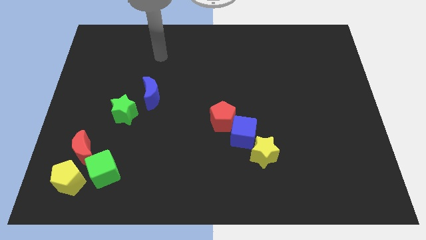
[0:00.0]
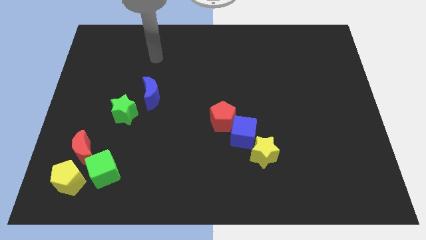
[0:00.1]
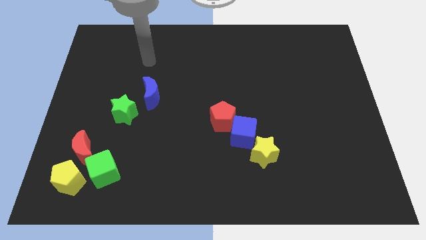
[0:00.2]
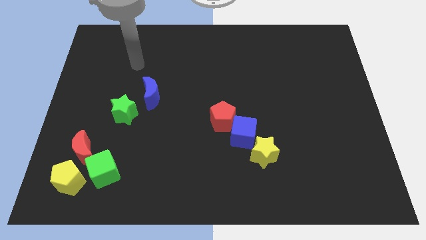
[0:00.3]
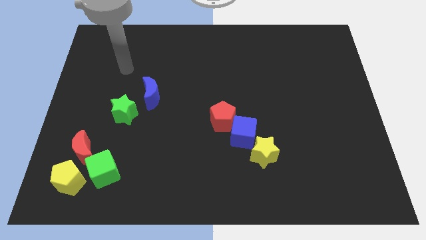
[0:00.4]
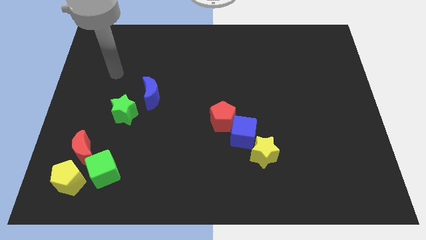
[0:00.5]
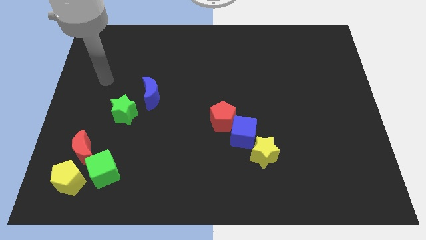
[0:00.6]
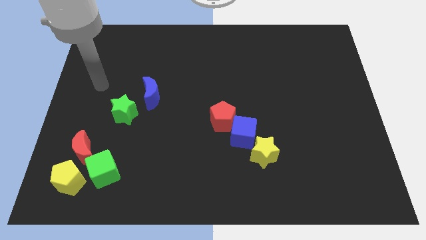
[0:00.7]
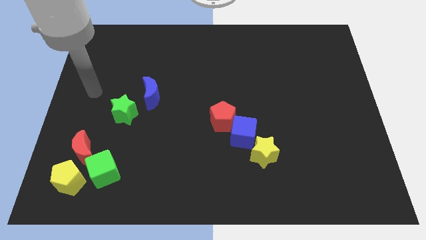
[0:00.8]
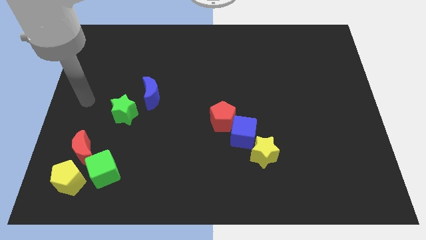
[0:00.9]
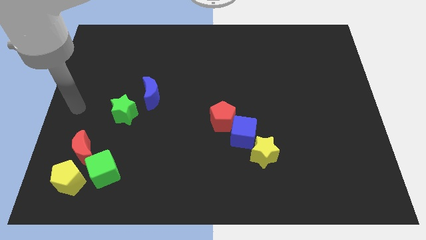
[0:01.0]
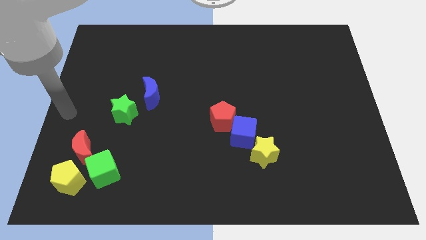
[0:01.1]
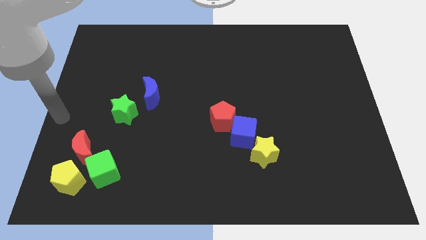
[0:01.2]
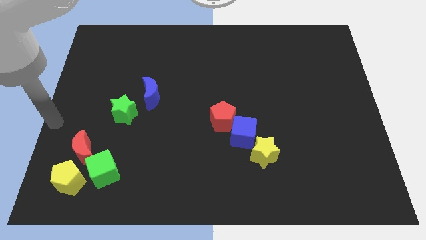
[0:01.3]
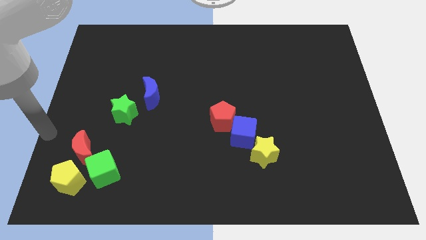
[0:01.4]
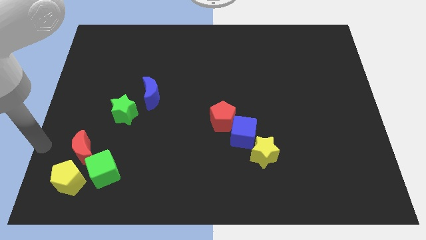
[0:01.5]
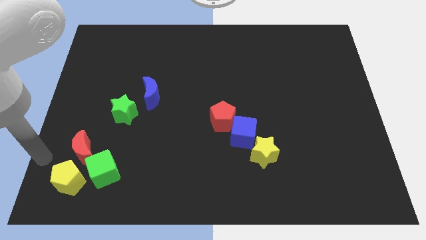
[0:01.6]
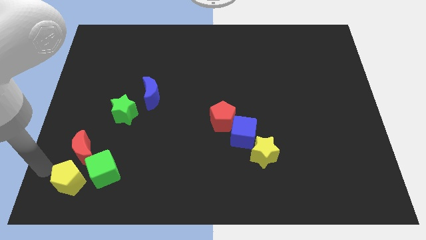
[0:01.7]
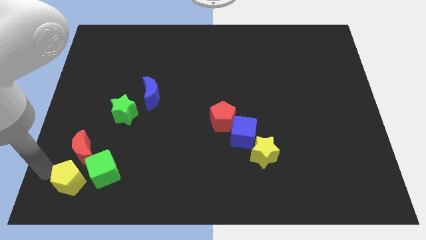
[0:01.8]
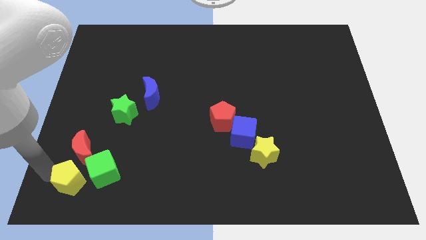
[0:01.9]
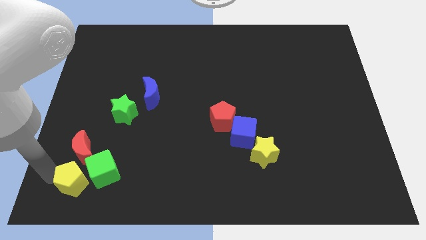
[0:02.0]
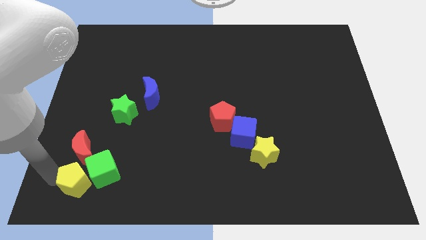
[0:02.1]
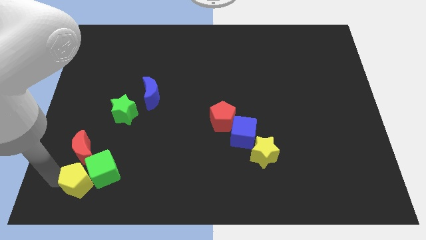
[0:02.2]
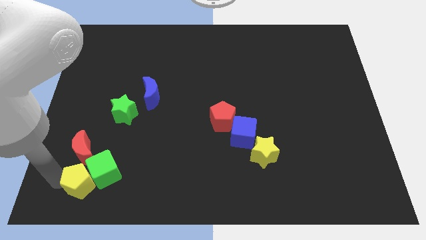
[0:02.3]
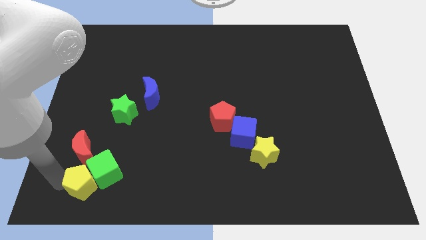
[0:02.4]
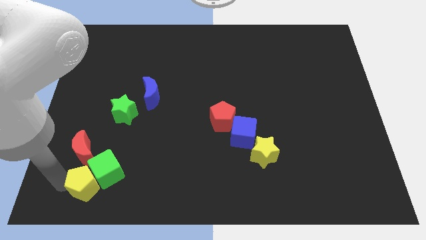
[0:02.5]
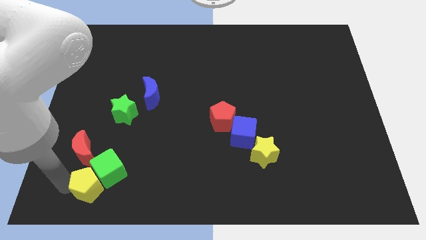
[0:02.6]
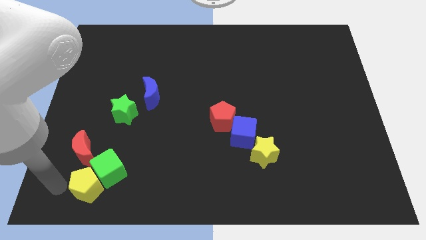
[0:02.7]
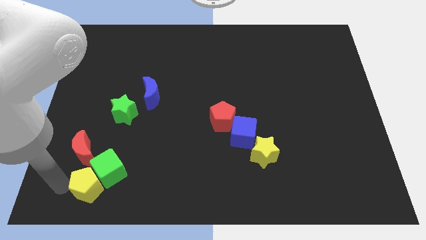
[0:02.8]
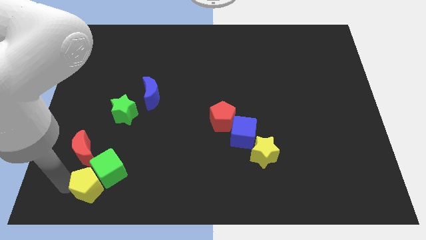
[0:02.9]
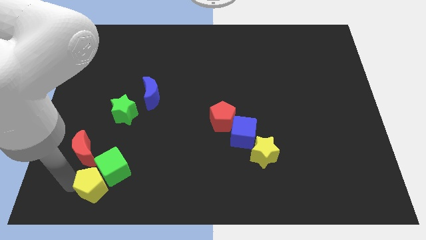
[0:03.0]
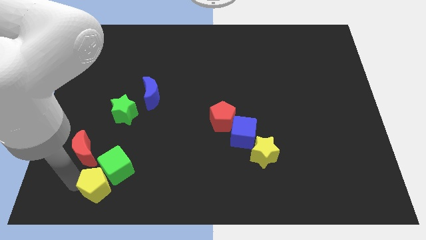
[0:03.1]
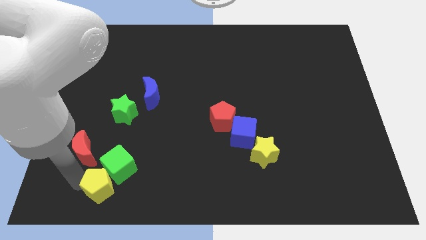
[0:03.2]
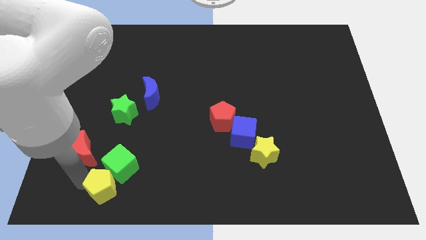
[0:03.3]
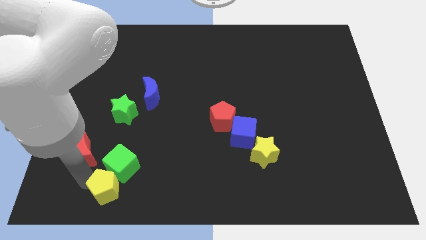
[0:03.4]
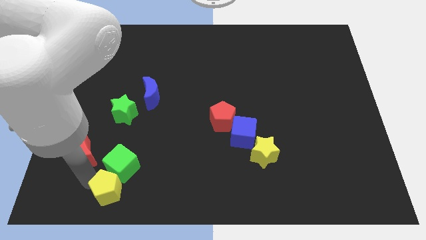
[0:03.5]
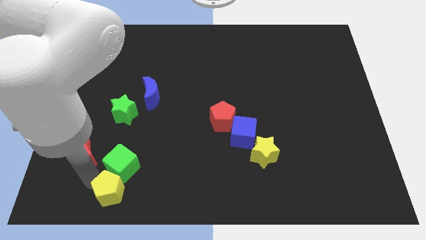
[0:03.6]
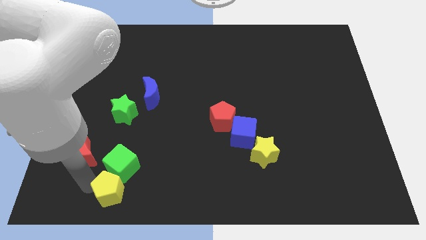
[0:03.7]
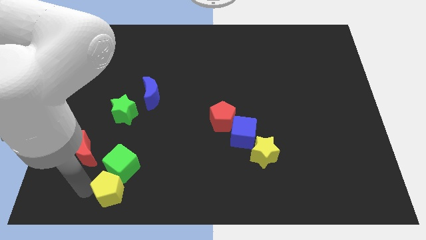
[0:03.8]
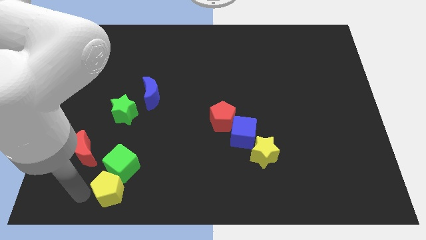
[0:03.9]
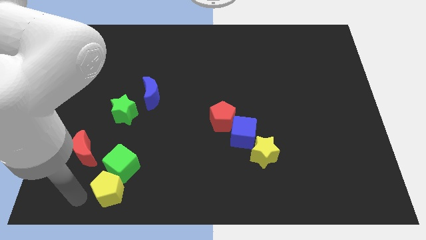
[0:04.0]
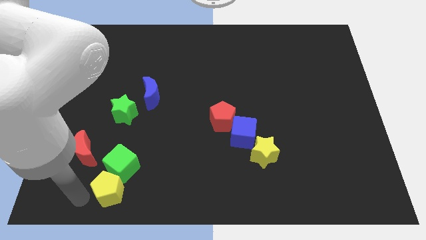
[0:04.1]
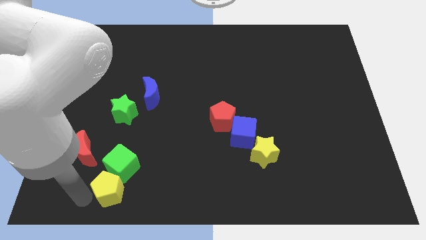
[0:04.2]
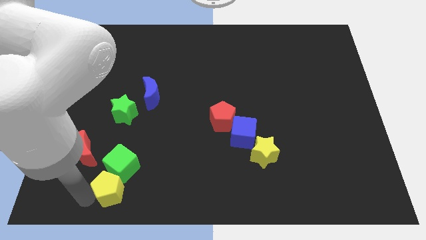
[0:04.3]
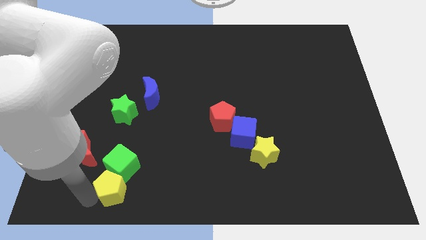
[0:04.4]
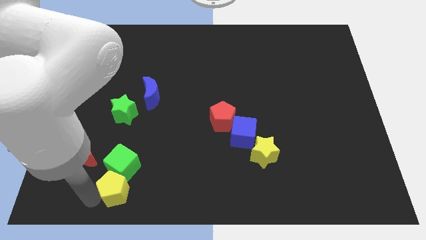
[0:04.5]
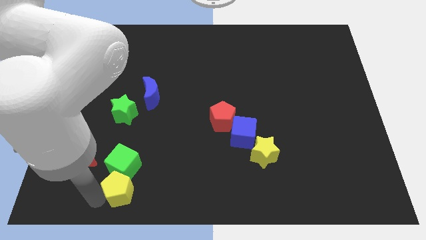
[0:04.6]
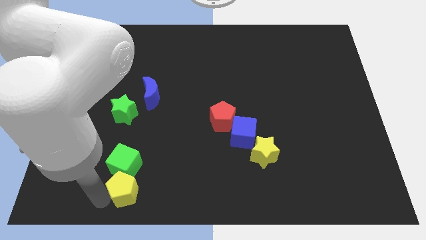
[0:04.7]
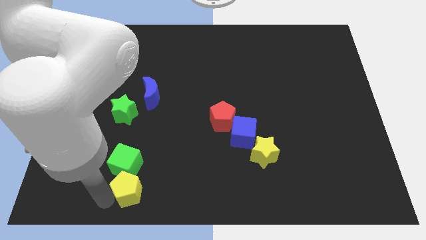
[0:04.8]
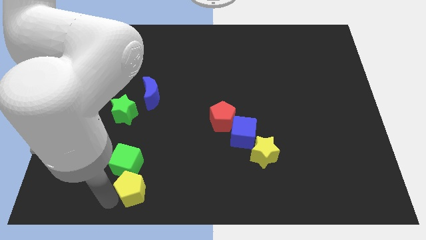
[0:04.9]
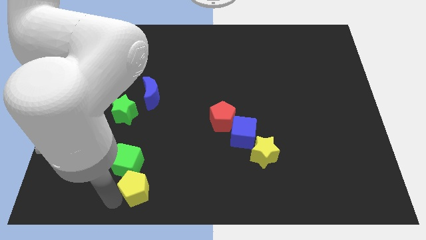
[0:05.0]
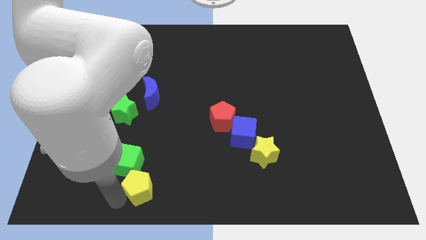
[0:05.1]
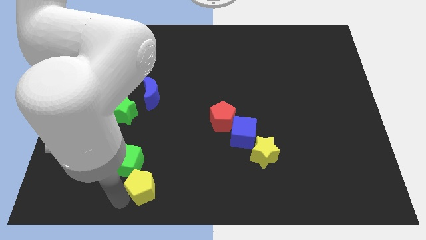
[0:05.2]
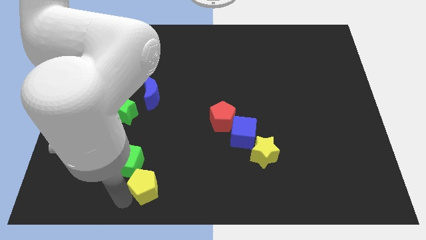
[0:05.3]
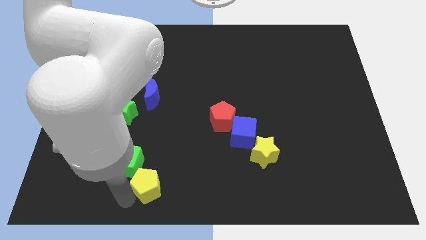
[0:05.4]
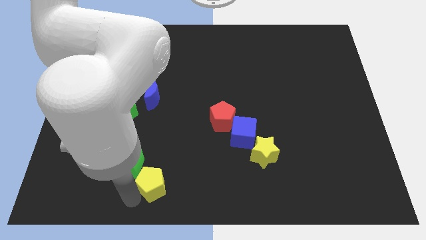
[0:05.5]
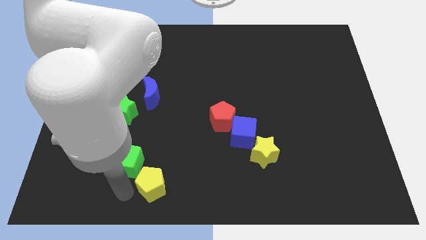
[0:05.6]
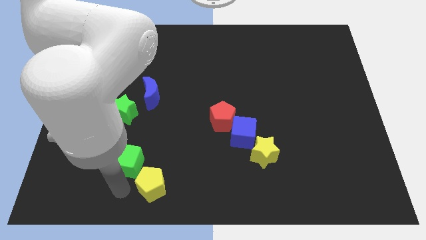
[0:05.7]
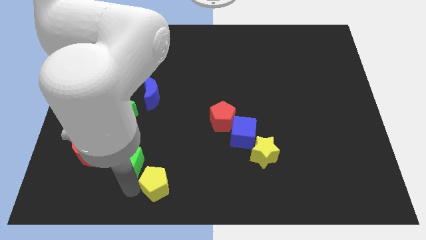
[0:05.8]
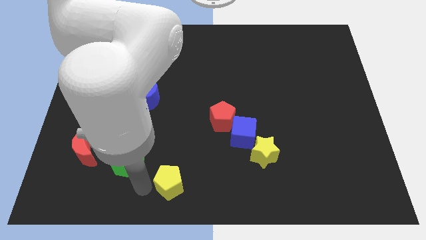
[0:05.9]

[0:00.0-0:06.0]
push the yellow pentagon to the right

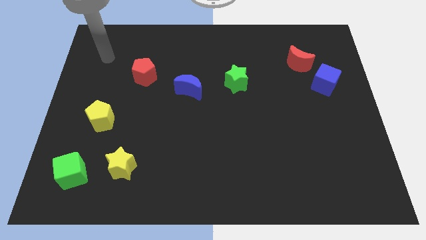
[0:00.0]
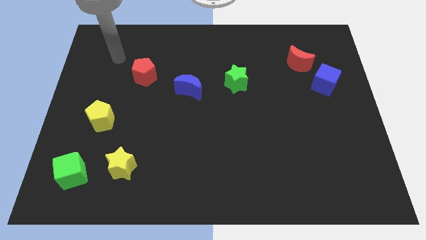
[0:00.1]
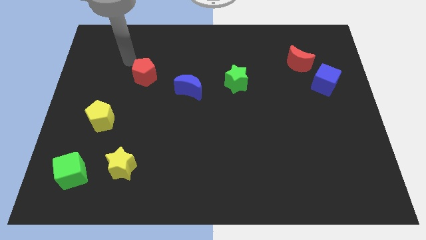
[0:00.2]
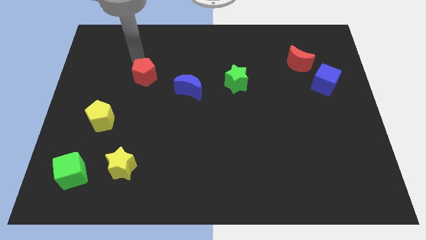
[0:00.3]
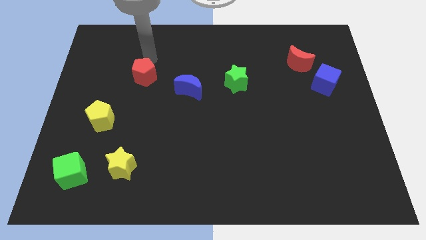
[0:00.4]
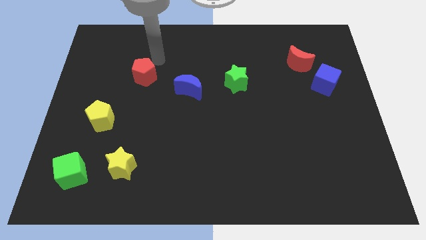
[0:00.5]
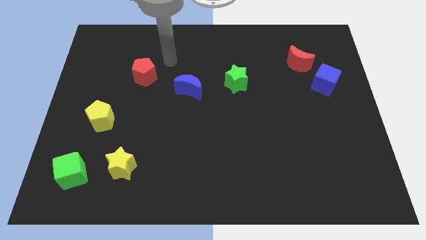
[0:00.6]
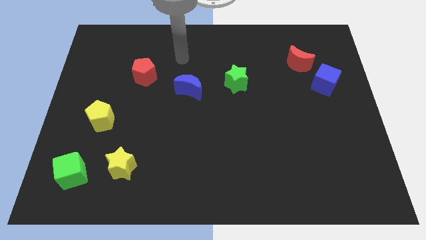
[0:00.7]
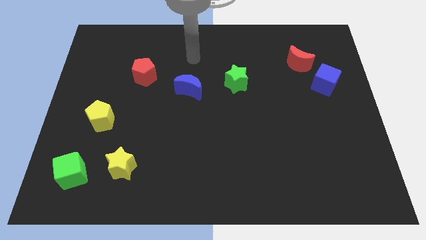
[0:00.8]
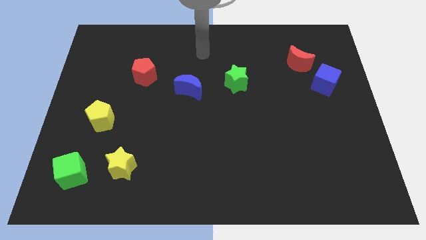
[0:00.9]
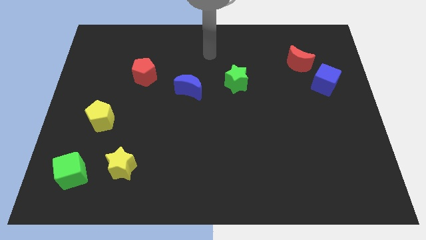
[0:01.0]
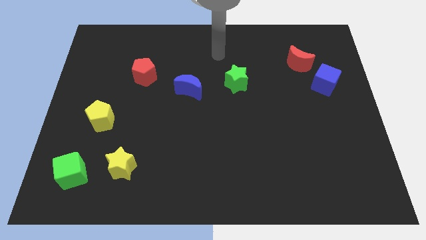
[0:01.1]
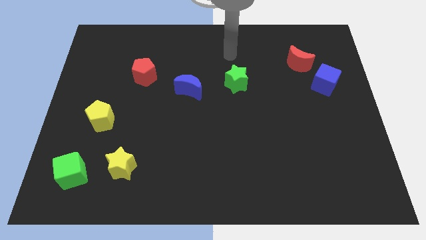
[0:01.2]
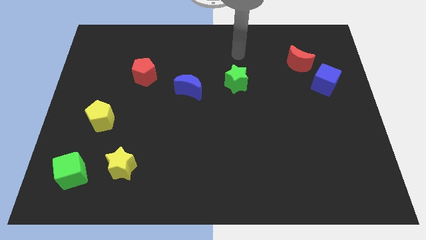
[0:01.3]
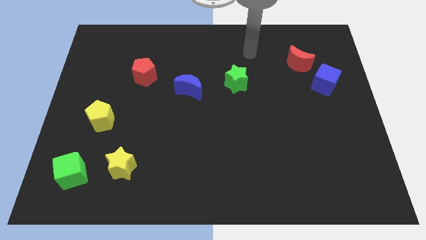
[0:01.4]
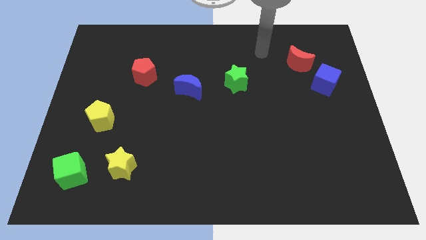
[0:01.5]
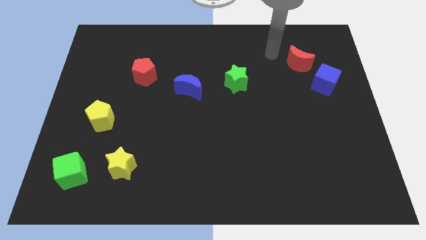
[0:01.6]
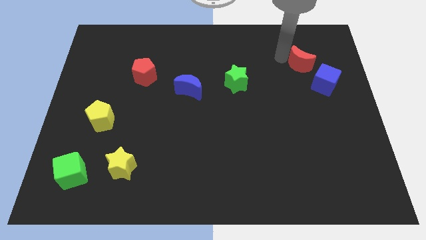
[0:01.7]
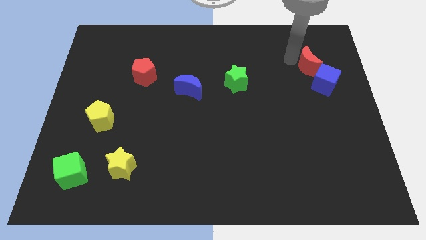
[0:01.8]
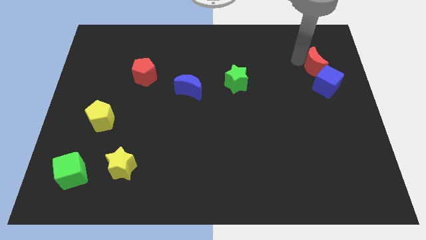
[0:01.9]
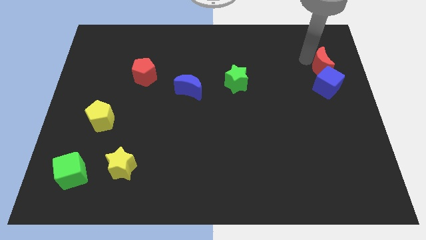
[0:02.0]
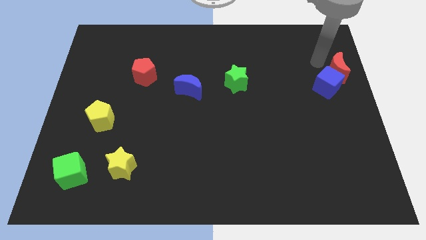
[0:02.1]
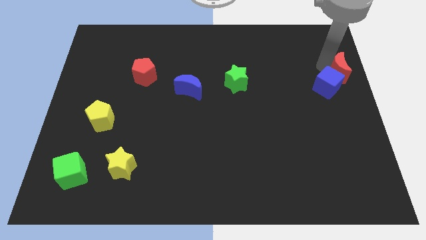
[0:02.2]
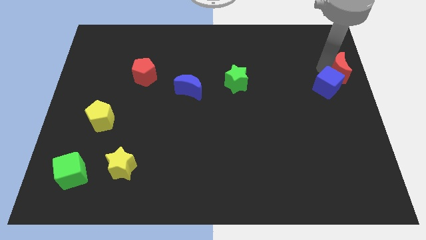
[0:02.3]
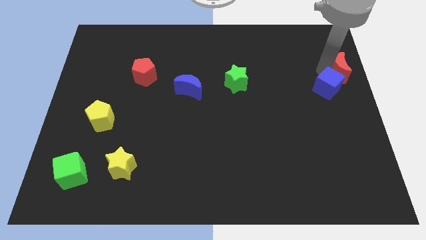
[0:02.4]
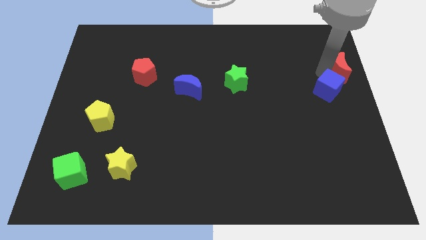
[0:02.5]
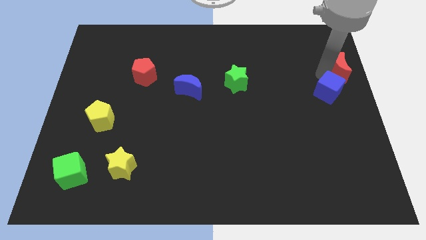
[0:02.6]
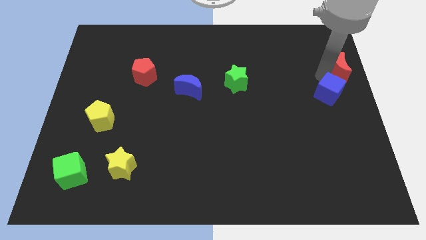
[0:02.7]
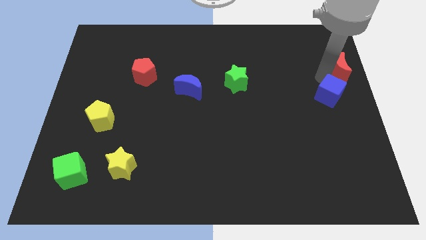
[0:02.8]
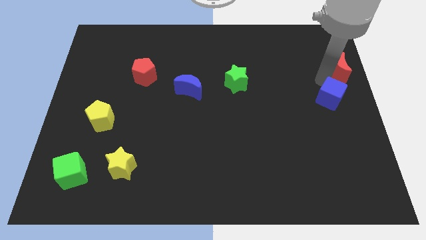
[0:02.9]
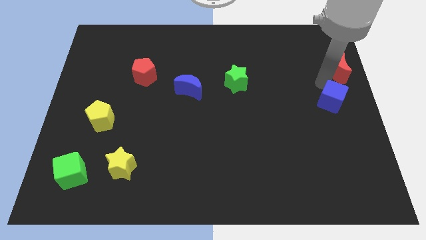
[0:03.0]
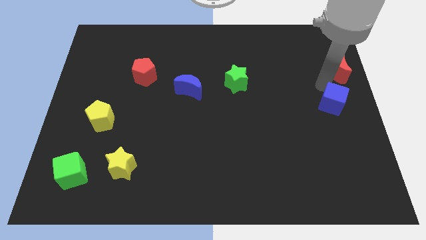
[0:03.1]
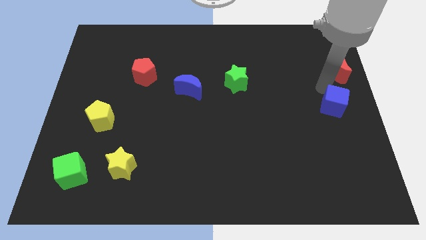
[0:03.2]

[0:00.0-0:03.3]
slightly slide the blue cube down
